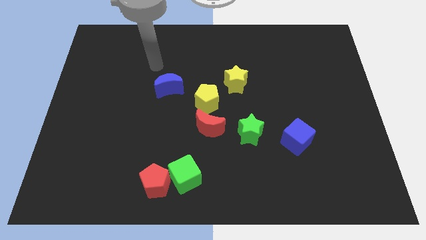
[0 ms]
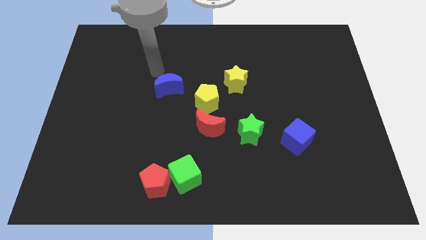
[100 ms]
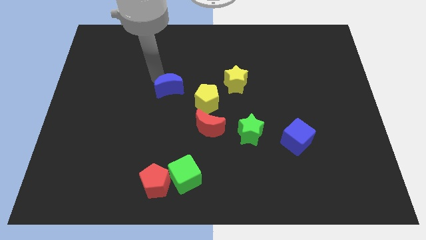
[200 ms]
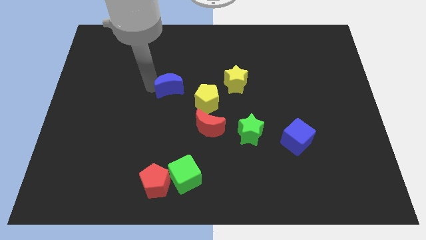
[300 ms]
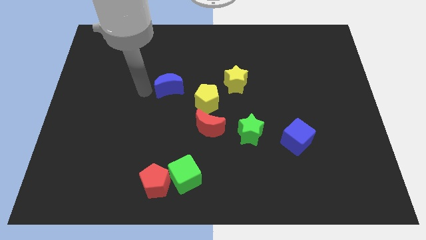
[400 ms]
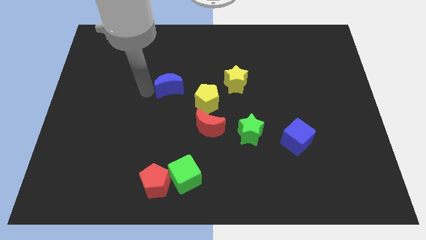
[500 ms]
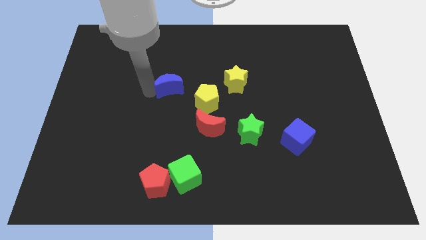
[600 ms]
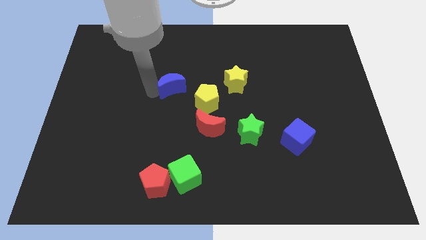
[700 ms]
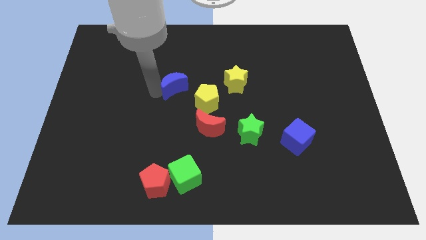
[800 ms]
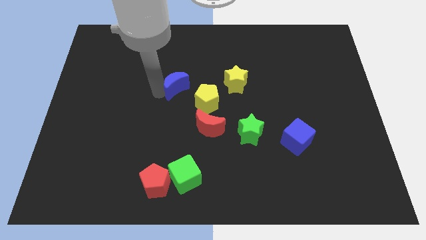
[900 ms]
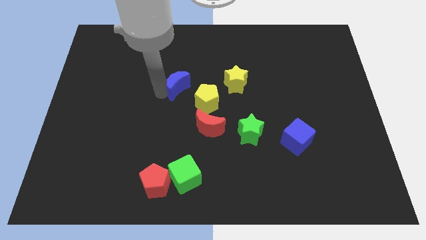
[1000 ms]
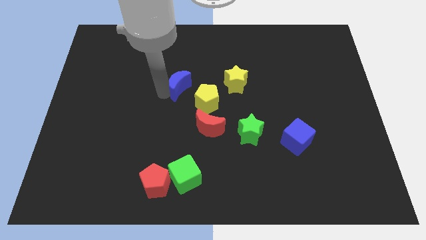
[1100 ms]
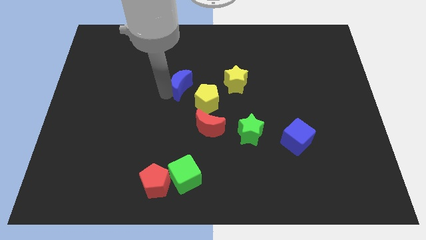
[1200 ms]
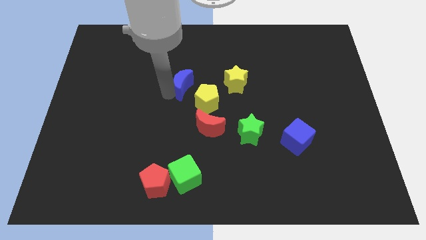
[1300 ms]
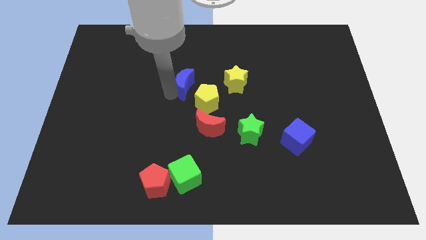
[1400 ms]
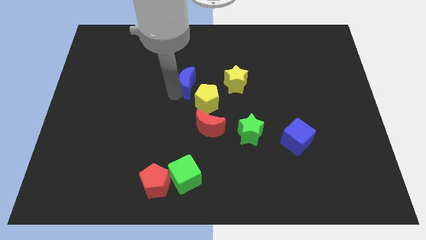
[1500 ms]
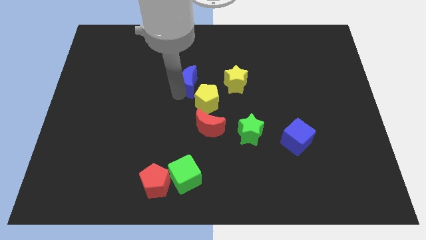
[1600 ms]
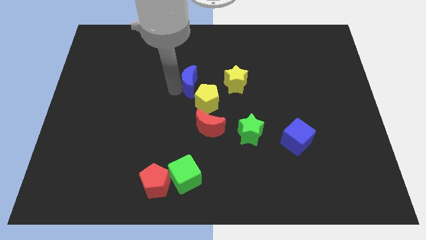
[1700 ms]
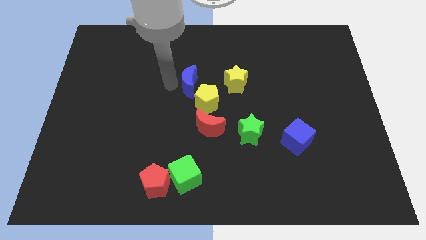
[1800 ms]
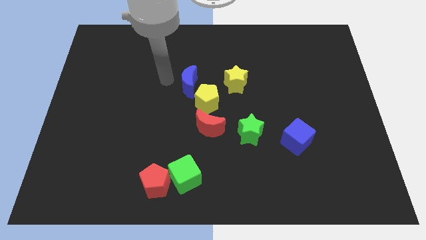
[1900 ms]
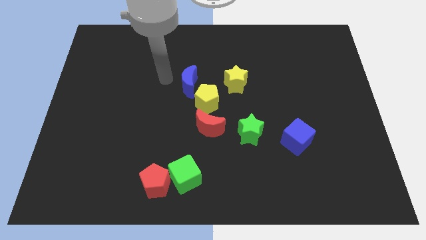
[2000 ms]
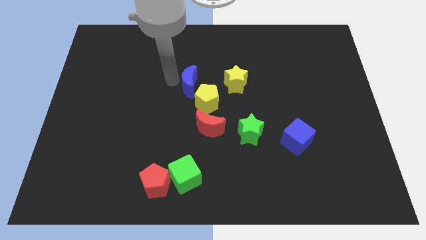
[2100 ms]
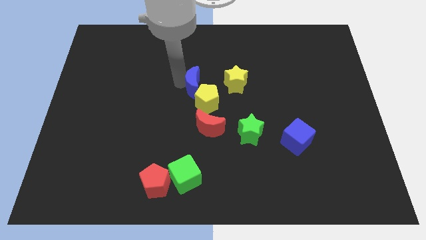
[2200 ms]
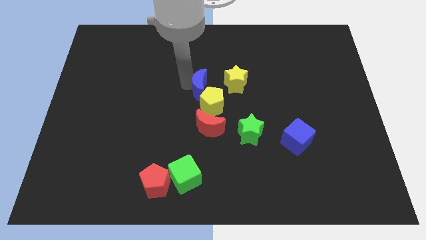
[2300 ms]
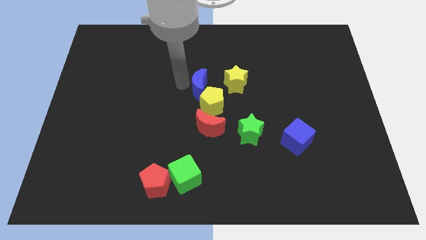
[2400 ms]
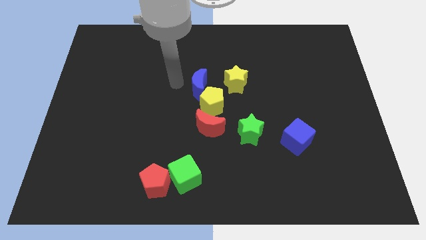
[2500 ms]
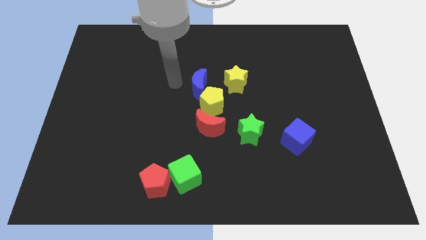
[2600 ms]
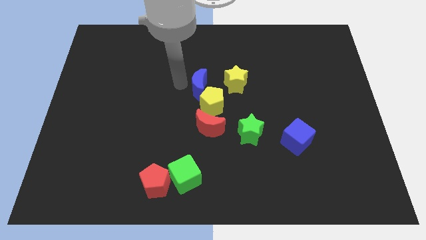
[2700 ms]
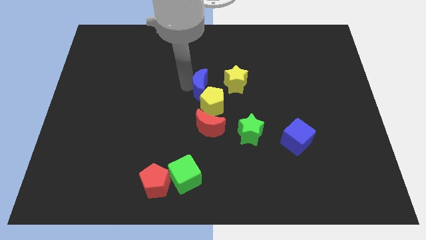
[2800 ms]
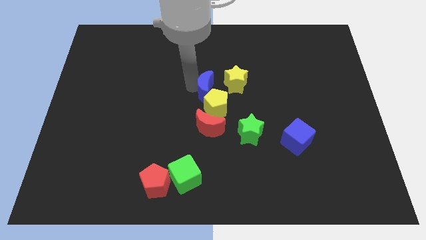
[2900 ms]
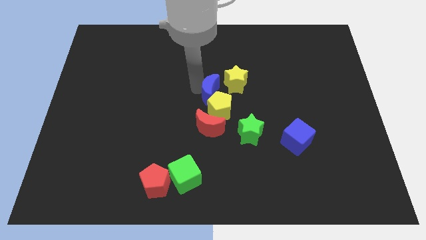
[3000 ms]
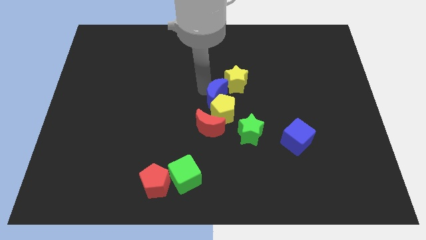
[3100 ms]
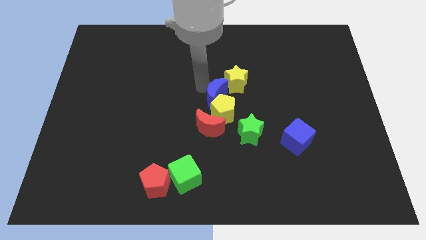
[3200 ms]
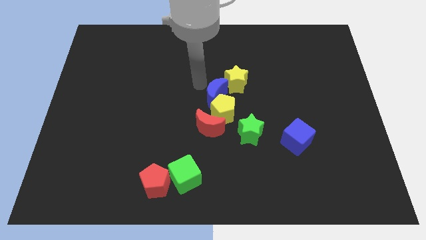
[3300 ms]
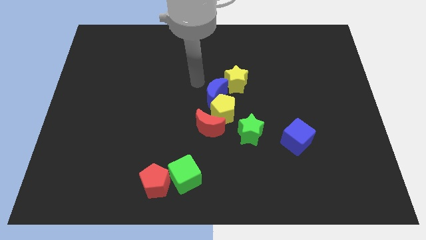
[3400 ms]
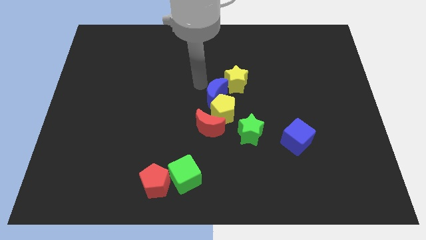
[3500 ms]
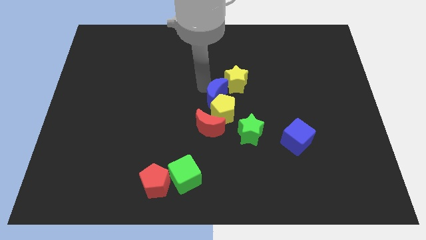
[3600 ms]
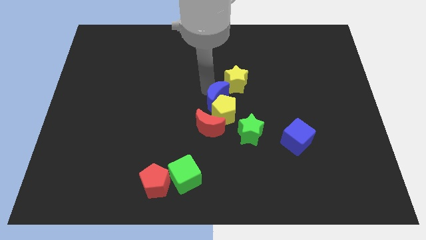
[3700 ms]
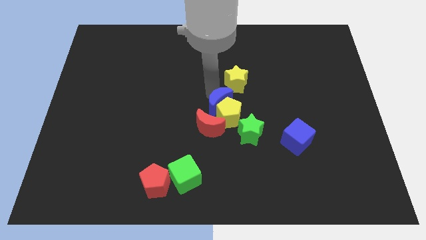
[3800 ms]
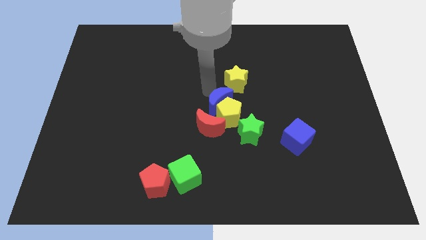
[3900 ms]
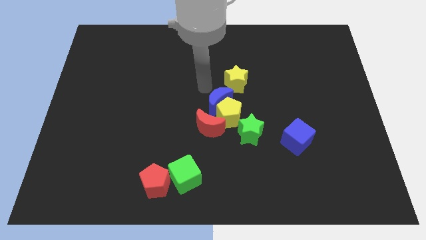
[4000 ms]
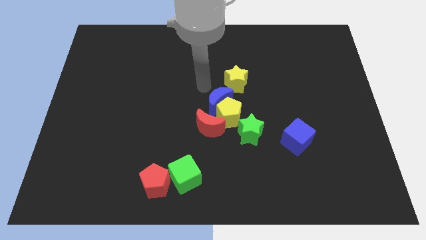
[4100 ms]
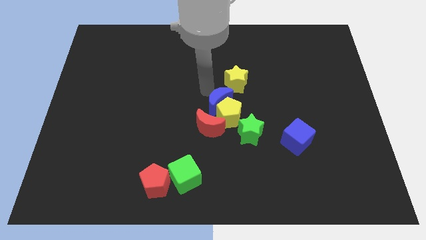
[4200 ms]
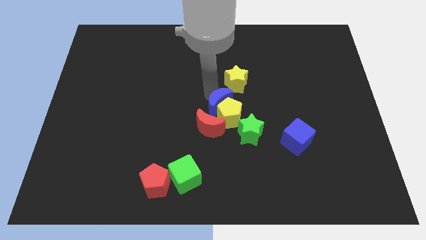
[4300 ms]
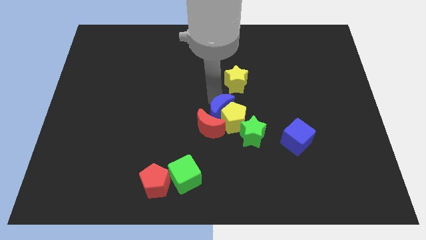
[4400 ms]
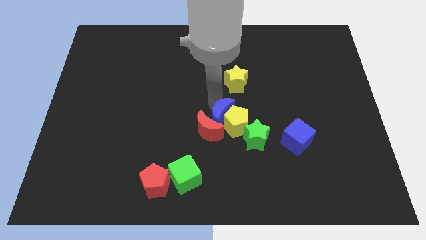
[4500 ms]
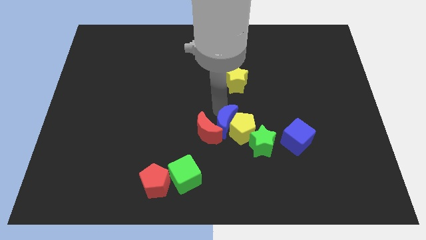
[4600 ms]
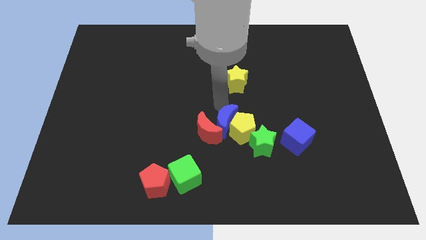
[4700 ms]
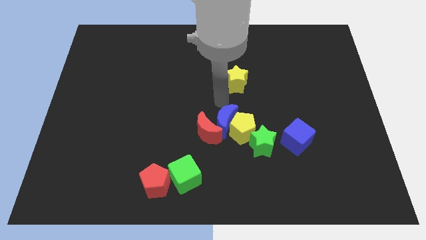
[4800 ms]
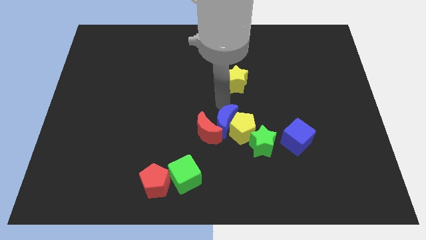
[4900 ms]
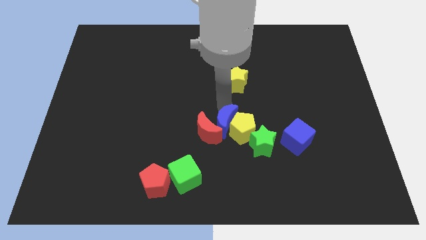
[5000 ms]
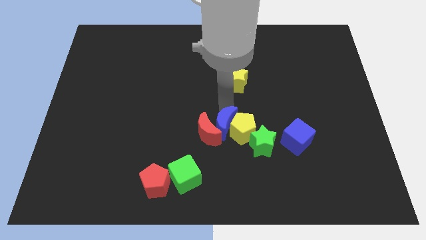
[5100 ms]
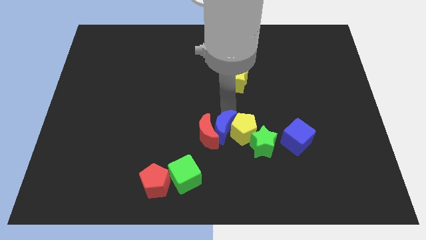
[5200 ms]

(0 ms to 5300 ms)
put the blue moon to the bottom right of the red moon

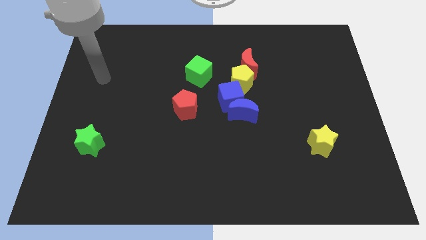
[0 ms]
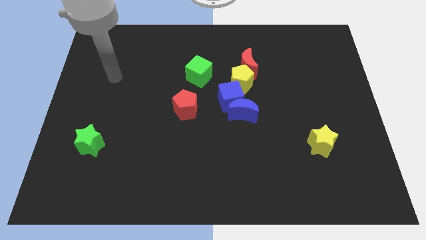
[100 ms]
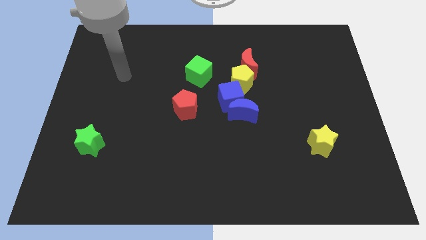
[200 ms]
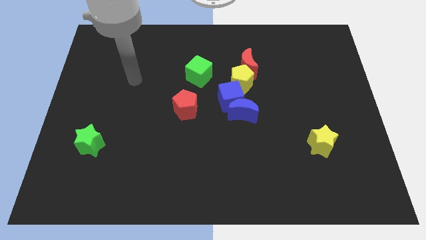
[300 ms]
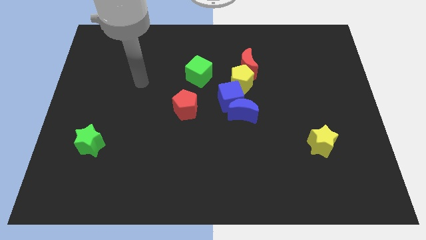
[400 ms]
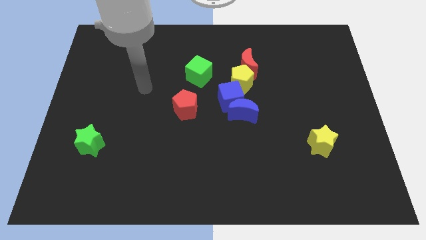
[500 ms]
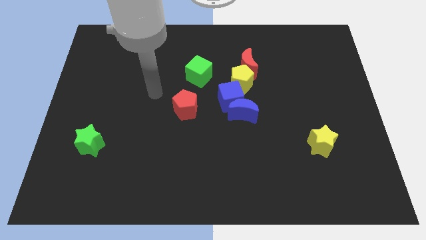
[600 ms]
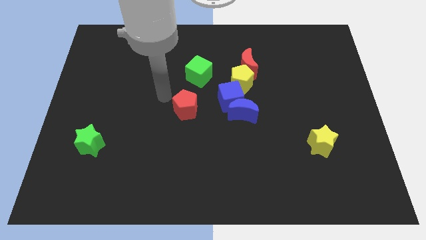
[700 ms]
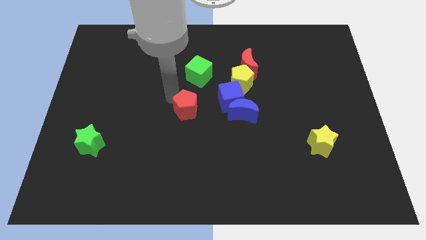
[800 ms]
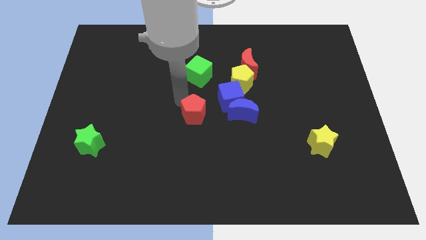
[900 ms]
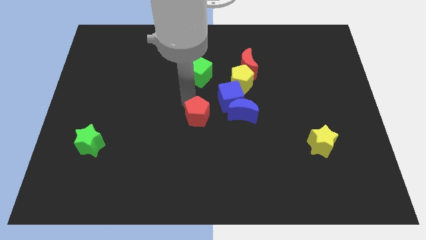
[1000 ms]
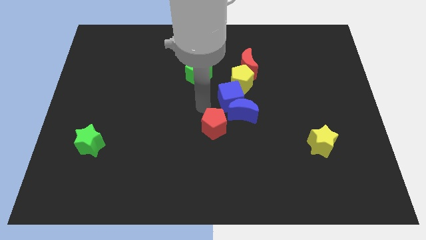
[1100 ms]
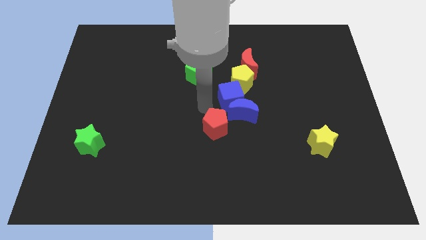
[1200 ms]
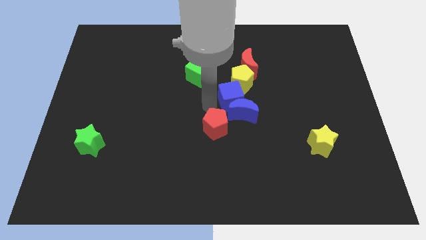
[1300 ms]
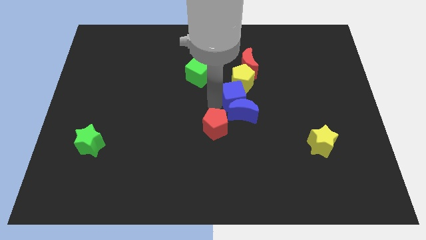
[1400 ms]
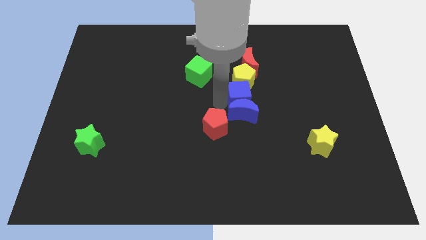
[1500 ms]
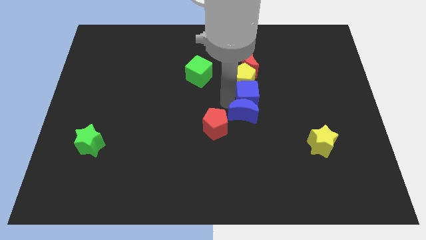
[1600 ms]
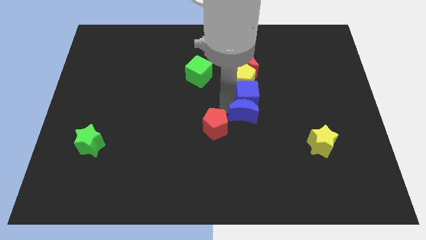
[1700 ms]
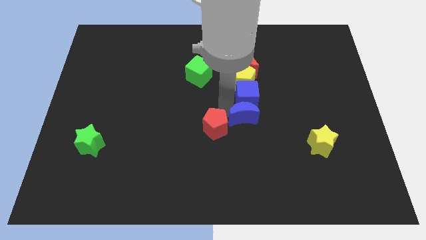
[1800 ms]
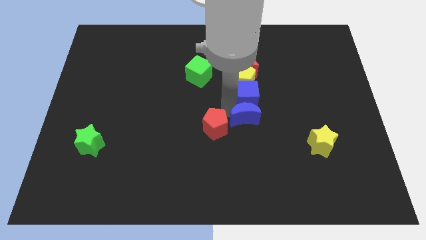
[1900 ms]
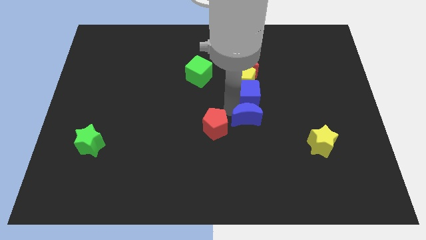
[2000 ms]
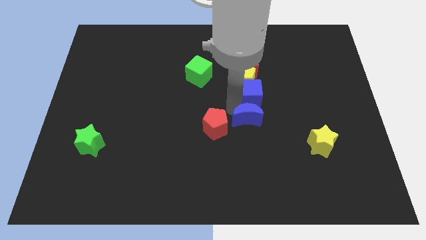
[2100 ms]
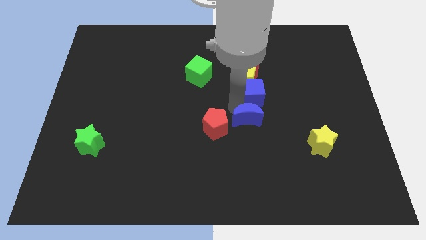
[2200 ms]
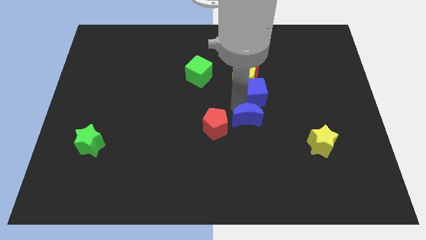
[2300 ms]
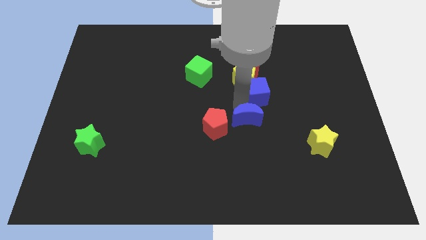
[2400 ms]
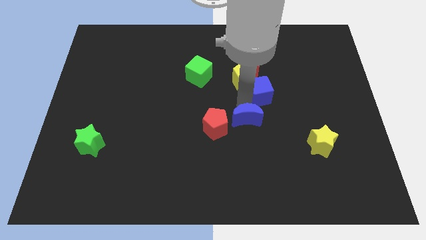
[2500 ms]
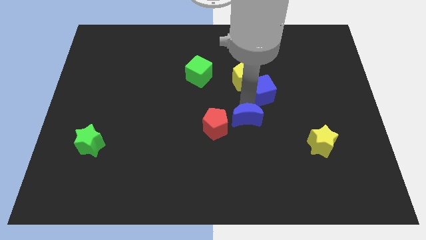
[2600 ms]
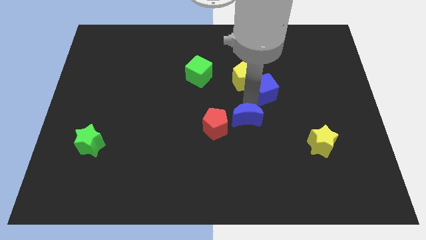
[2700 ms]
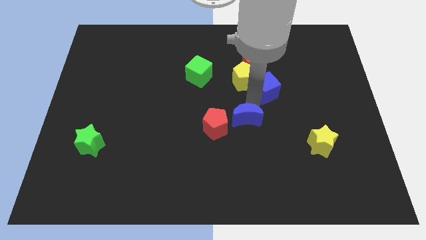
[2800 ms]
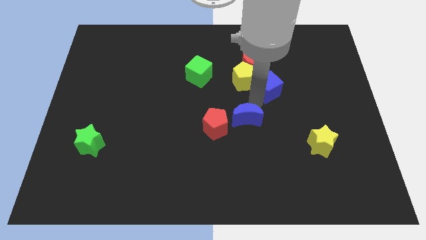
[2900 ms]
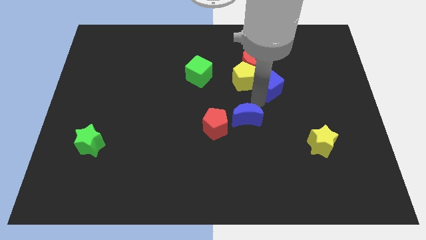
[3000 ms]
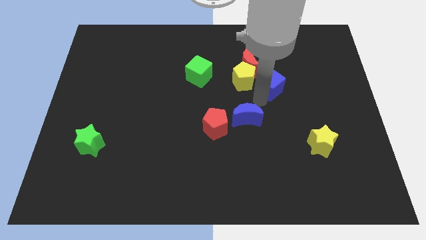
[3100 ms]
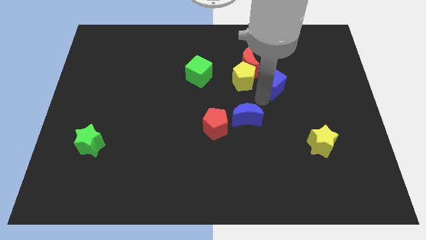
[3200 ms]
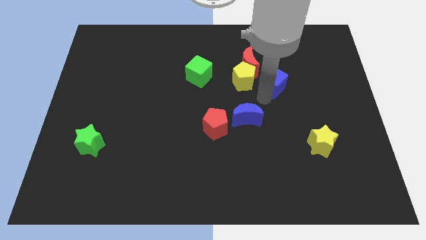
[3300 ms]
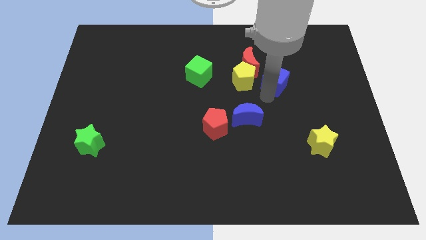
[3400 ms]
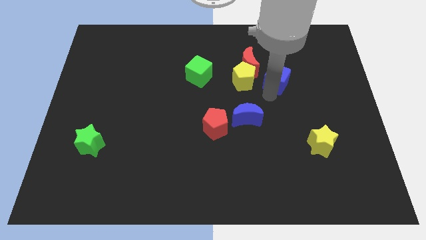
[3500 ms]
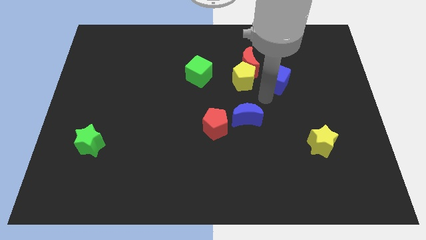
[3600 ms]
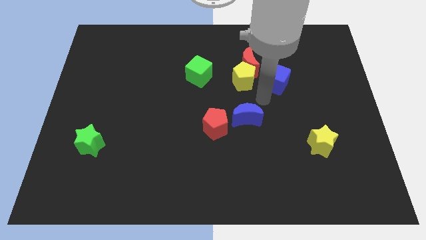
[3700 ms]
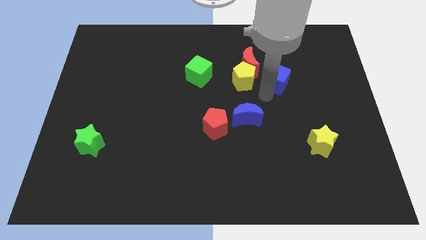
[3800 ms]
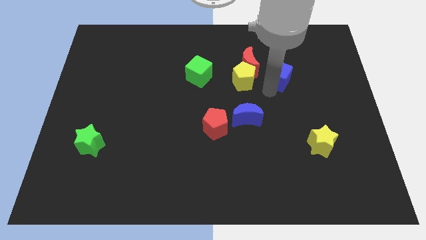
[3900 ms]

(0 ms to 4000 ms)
slide the blue cube right of the red moon
